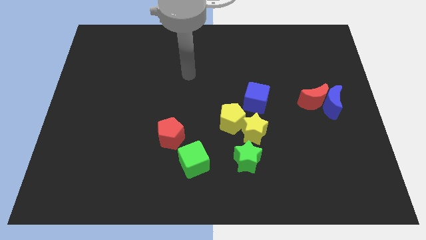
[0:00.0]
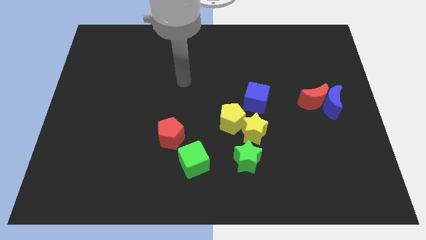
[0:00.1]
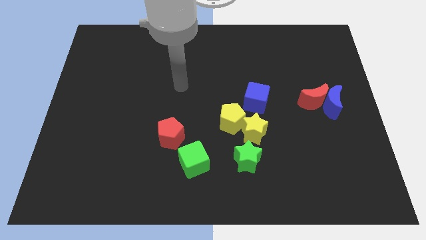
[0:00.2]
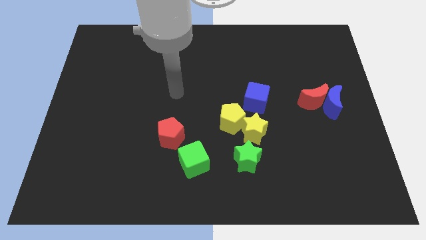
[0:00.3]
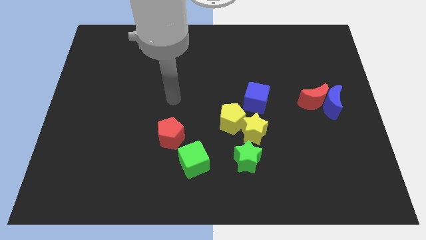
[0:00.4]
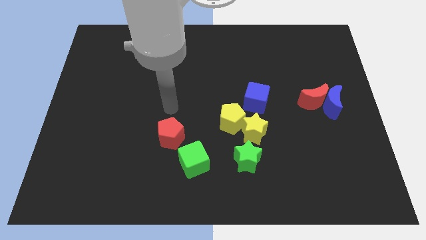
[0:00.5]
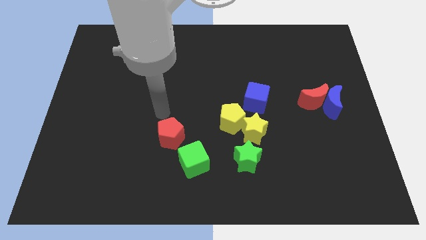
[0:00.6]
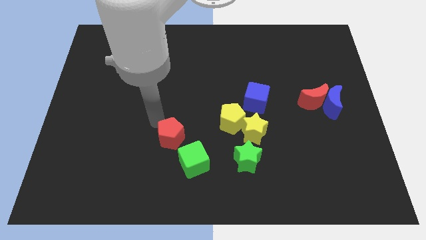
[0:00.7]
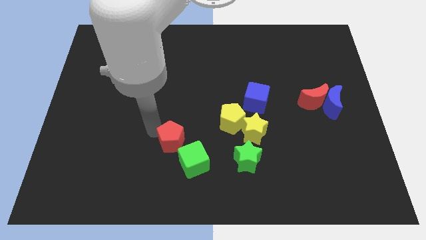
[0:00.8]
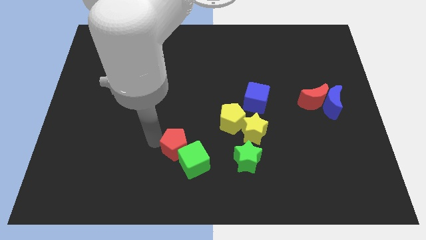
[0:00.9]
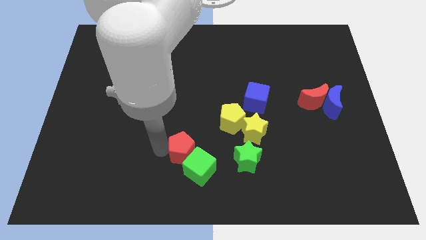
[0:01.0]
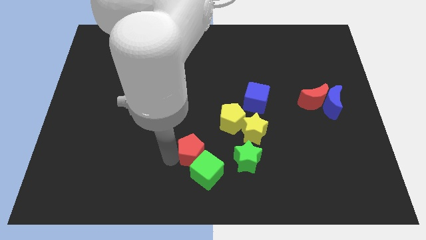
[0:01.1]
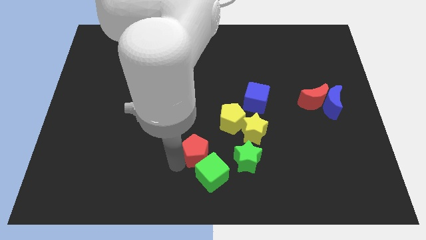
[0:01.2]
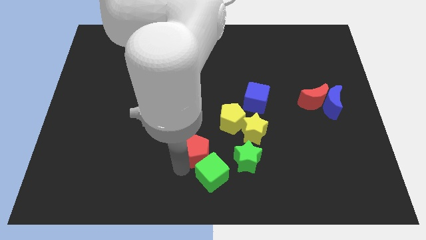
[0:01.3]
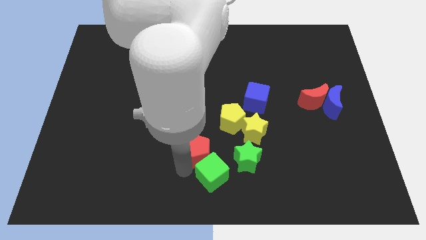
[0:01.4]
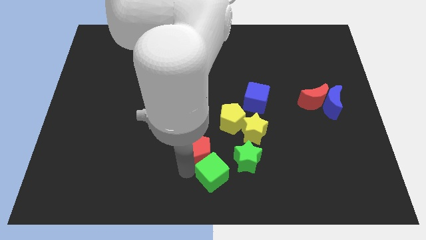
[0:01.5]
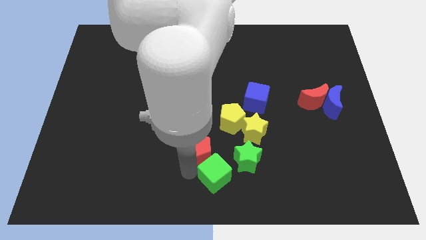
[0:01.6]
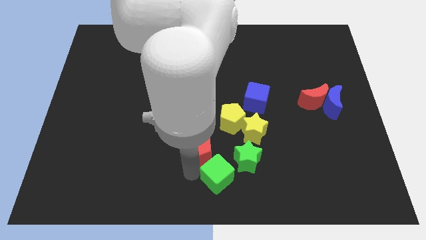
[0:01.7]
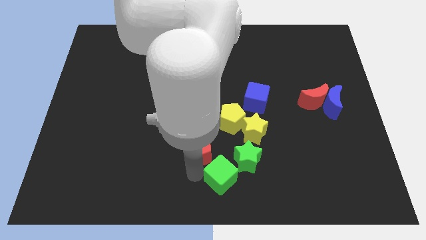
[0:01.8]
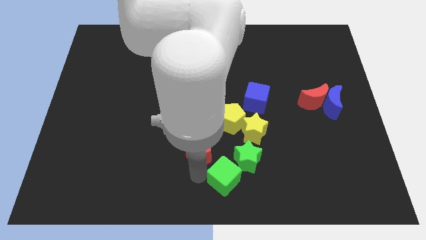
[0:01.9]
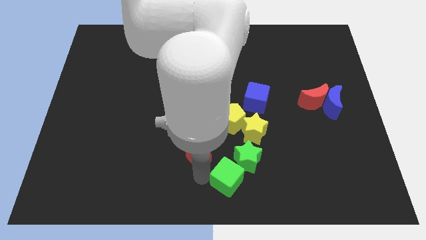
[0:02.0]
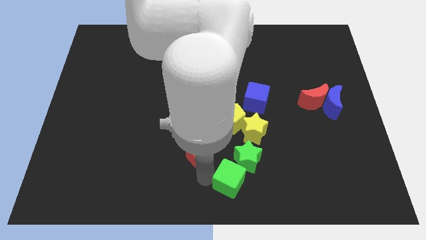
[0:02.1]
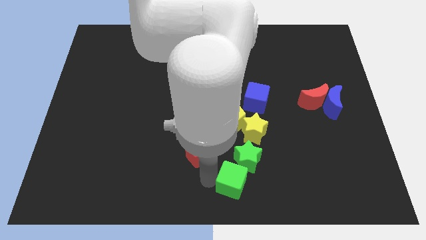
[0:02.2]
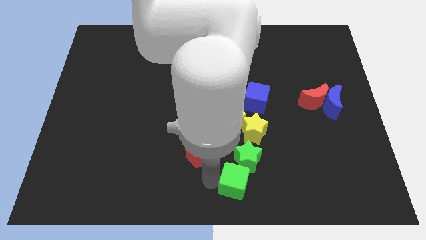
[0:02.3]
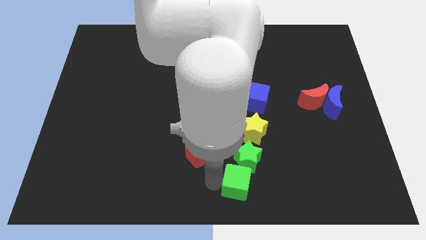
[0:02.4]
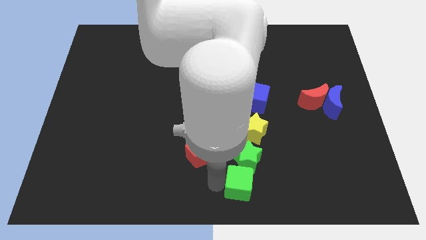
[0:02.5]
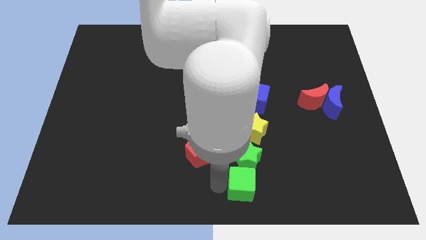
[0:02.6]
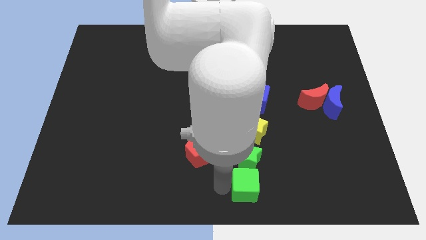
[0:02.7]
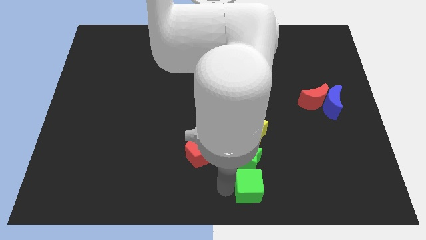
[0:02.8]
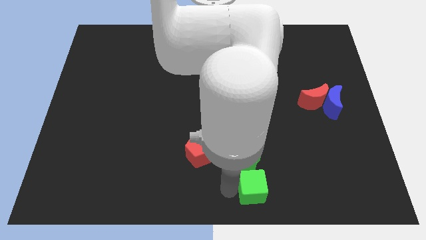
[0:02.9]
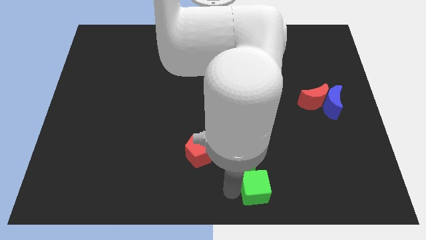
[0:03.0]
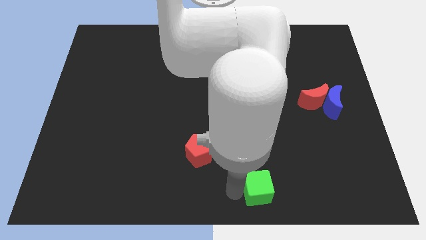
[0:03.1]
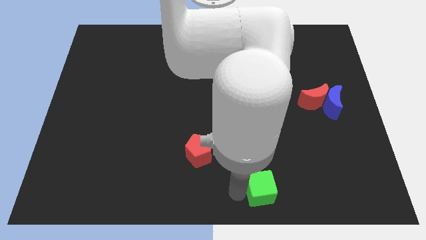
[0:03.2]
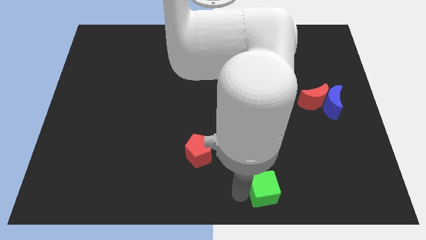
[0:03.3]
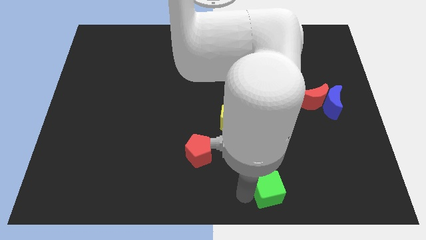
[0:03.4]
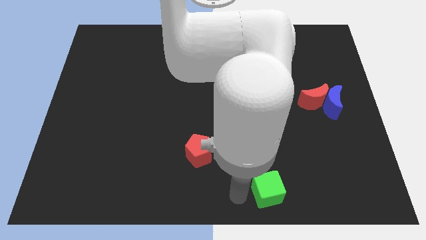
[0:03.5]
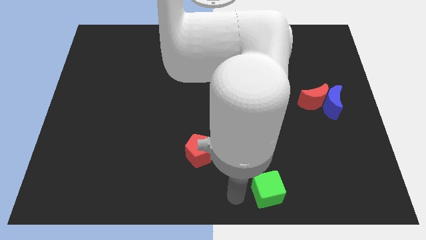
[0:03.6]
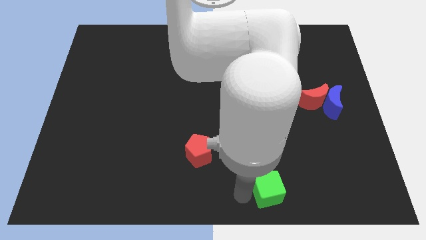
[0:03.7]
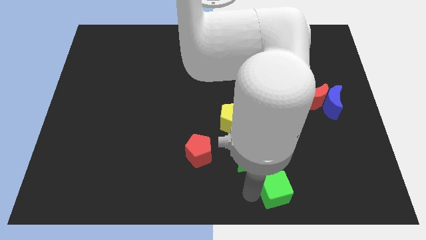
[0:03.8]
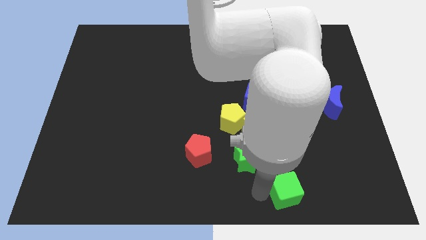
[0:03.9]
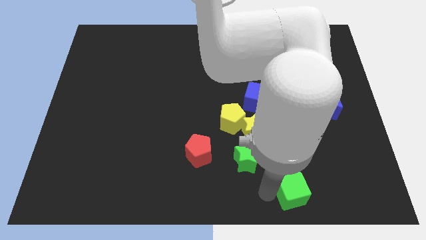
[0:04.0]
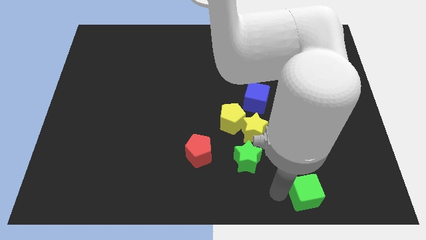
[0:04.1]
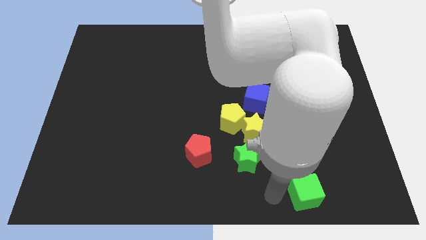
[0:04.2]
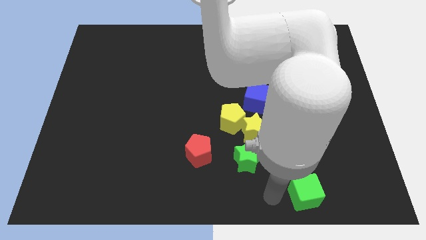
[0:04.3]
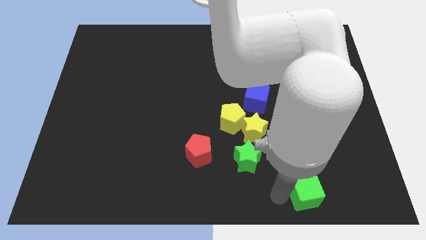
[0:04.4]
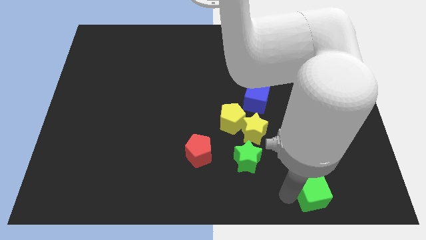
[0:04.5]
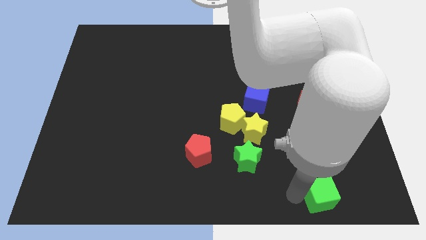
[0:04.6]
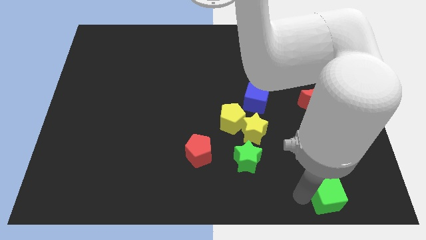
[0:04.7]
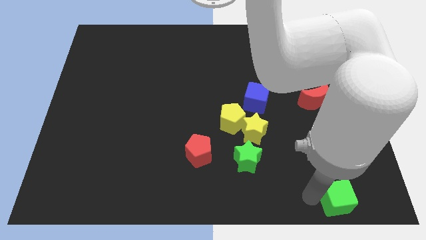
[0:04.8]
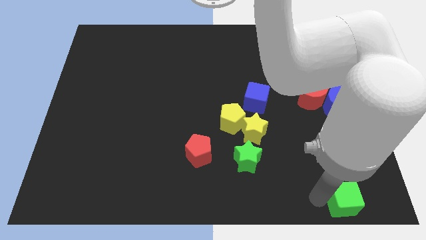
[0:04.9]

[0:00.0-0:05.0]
move the green cube to the bottom right of the board

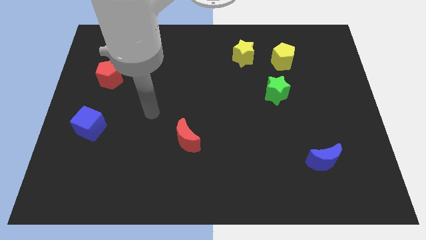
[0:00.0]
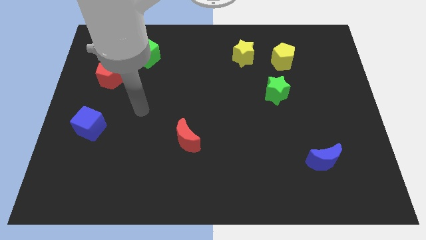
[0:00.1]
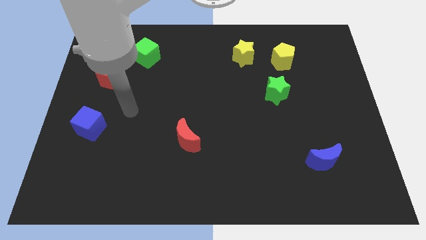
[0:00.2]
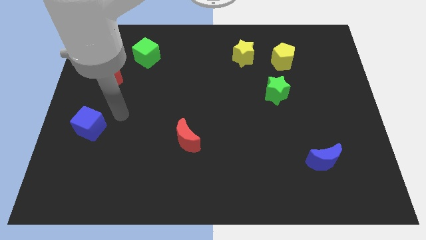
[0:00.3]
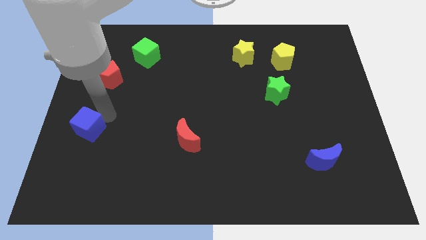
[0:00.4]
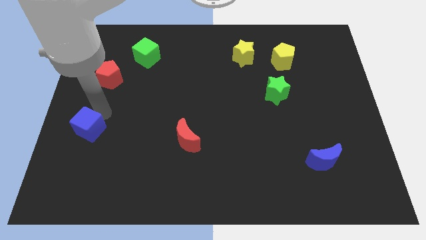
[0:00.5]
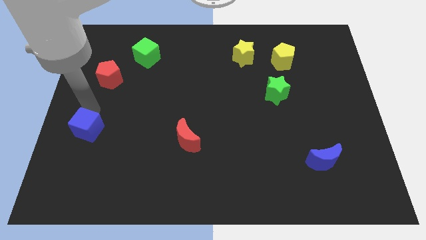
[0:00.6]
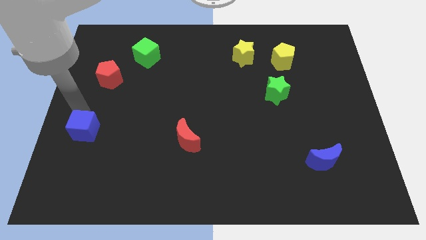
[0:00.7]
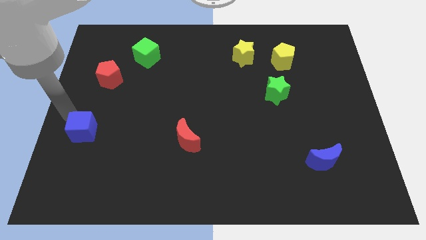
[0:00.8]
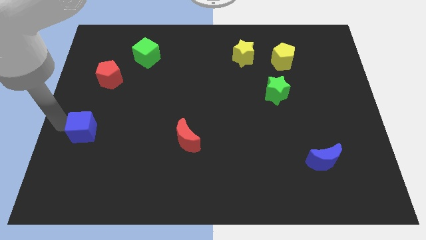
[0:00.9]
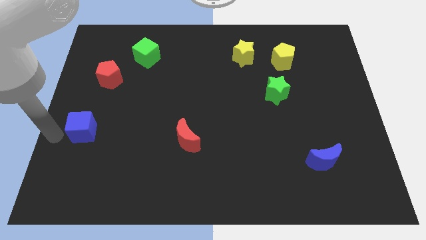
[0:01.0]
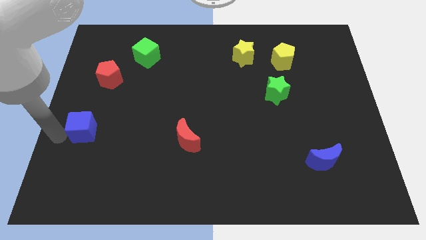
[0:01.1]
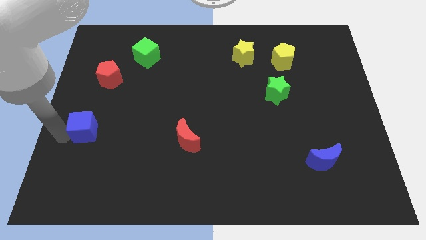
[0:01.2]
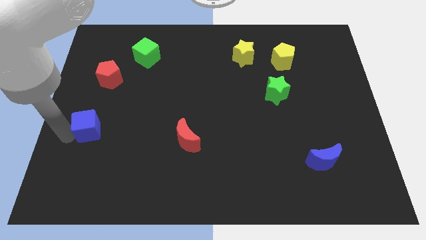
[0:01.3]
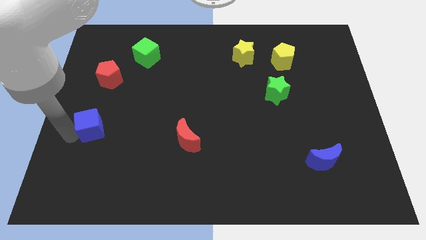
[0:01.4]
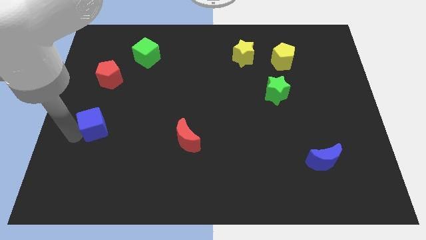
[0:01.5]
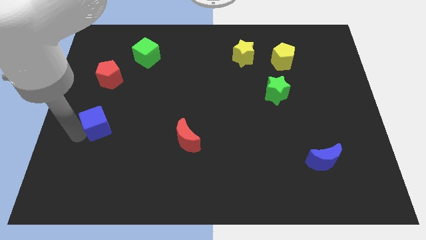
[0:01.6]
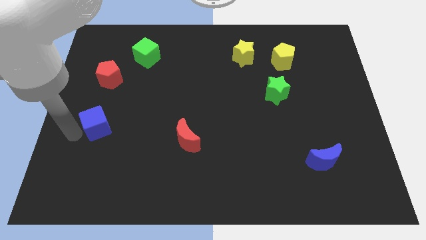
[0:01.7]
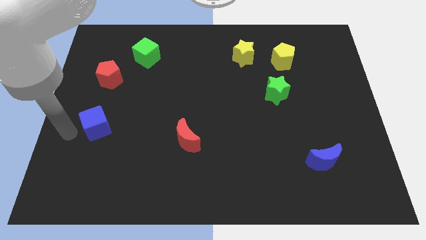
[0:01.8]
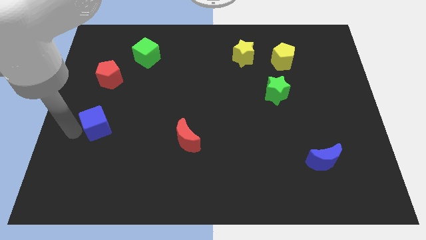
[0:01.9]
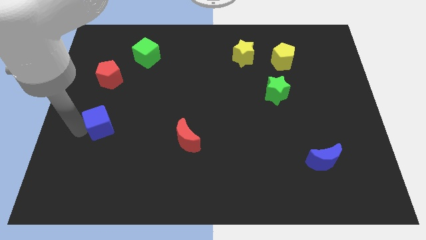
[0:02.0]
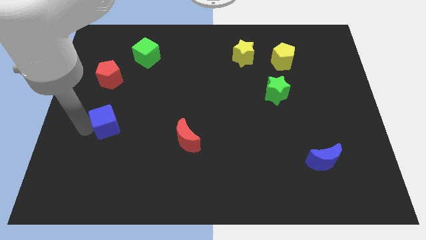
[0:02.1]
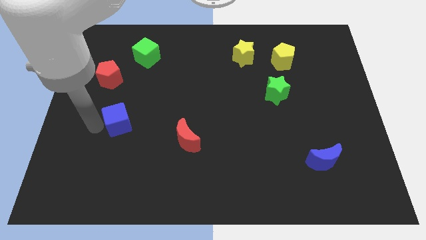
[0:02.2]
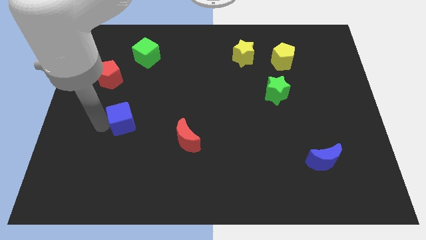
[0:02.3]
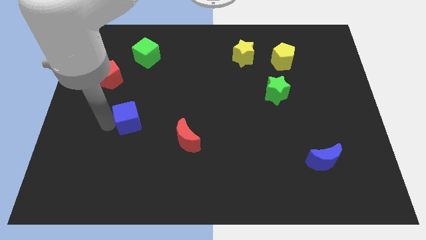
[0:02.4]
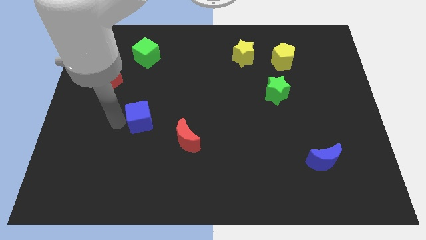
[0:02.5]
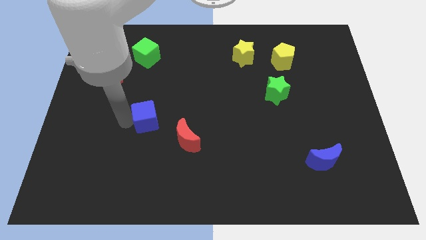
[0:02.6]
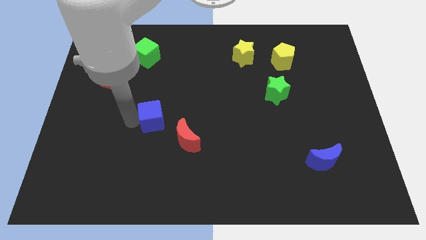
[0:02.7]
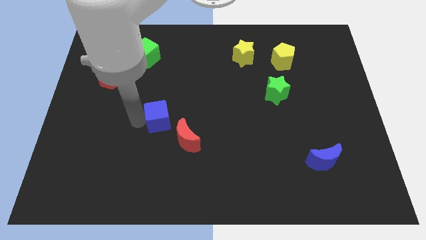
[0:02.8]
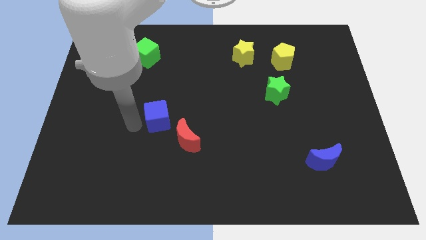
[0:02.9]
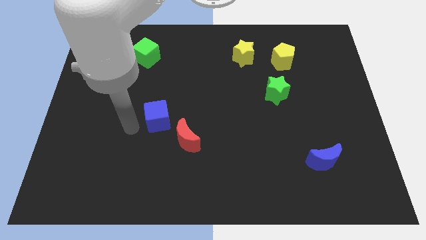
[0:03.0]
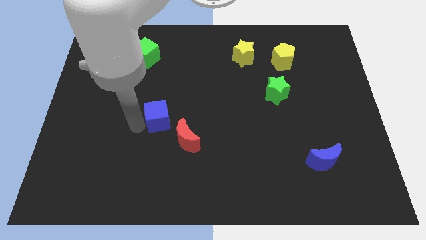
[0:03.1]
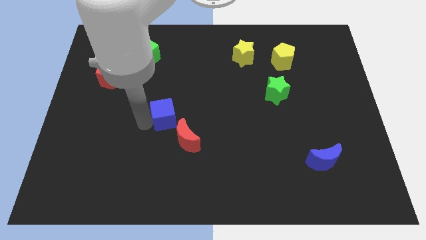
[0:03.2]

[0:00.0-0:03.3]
push the blue cube to the middle of the board
